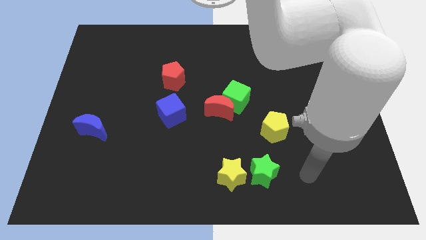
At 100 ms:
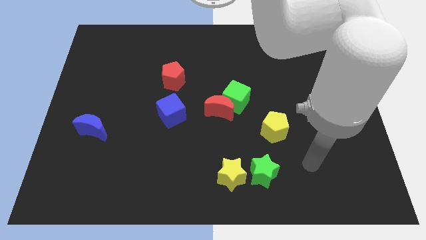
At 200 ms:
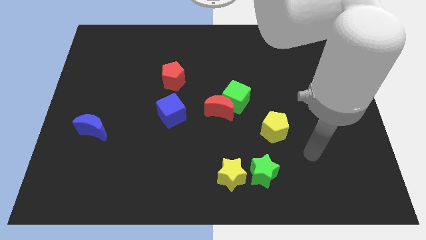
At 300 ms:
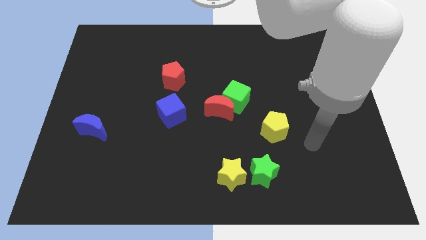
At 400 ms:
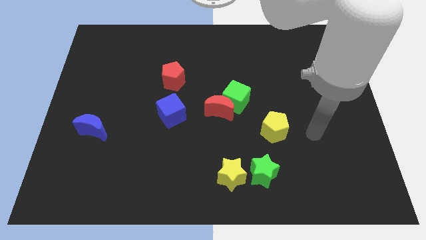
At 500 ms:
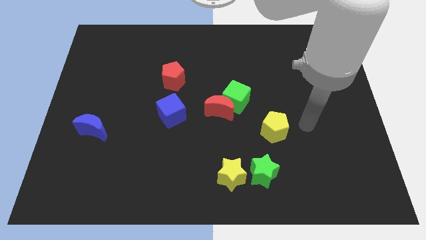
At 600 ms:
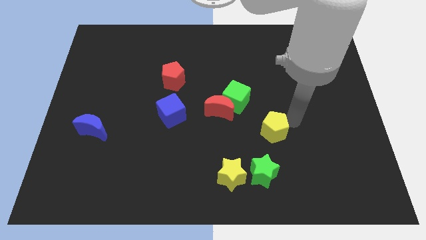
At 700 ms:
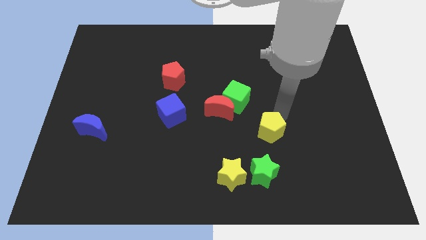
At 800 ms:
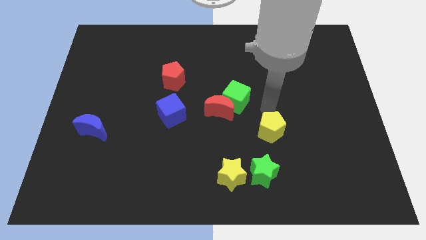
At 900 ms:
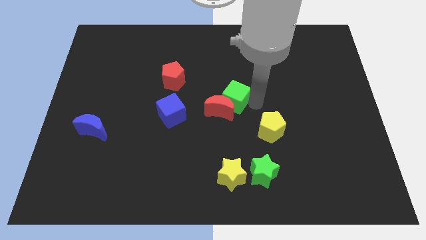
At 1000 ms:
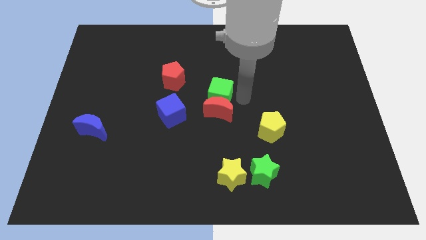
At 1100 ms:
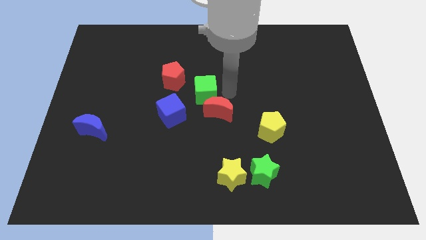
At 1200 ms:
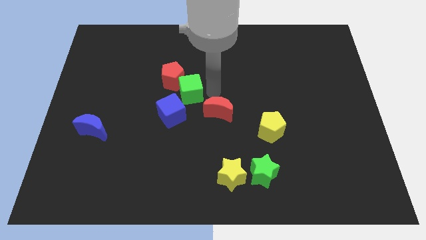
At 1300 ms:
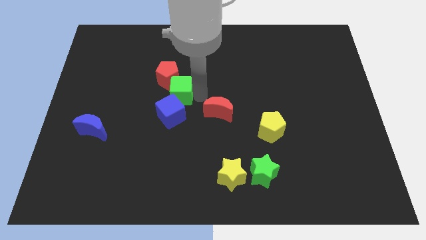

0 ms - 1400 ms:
separate the red moon from the green cube

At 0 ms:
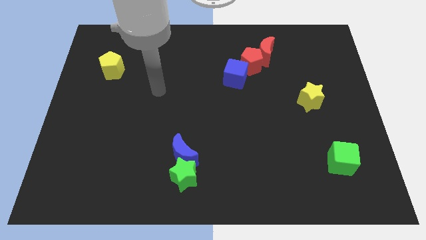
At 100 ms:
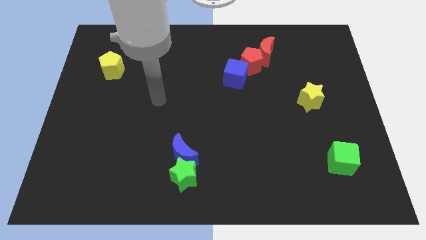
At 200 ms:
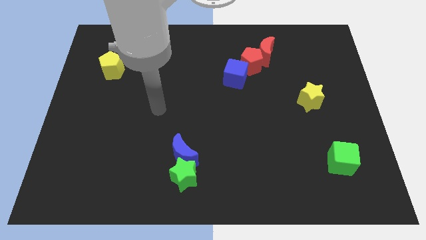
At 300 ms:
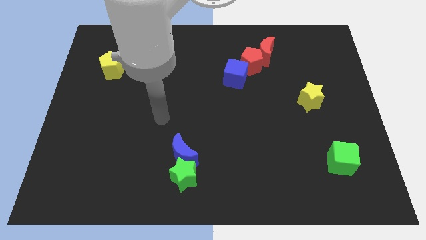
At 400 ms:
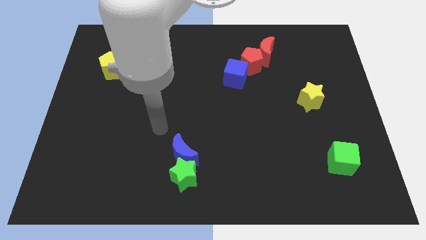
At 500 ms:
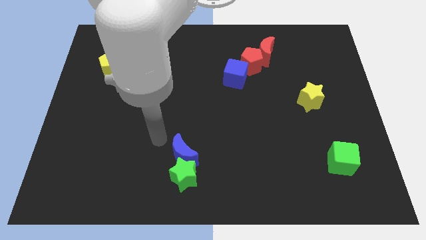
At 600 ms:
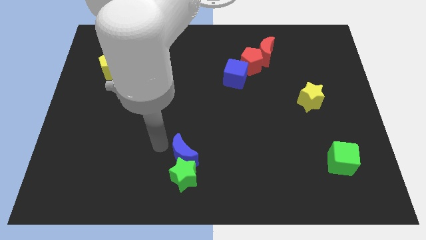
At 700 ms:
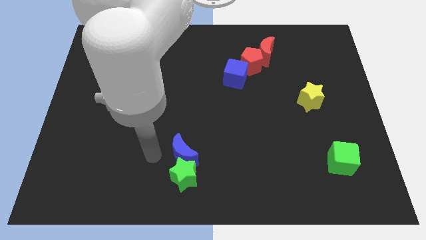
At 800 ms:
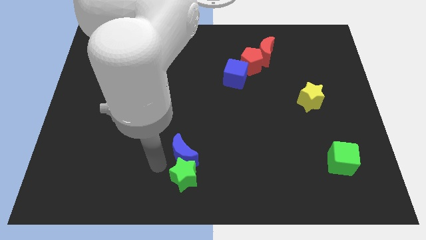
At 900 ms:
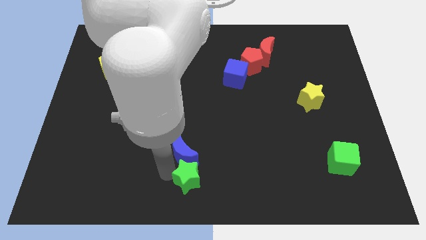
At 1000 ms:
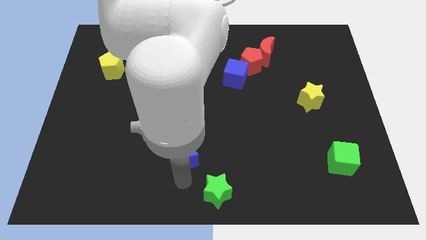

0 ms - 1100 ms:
pull the blue moon apart from the green star

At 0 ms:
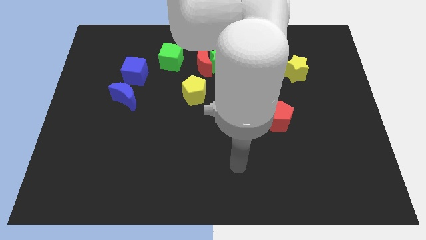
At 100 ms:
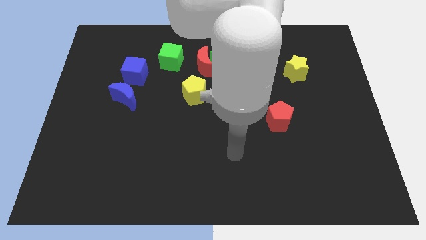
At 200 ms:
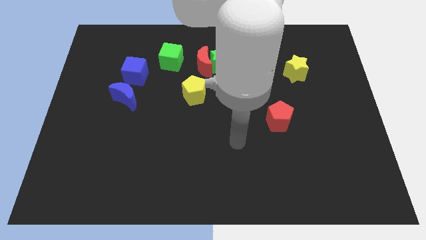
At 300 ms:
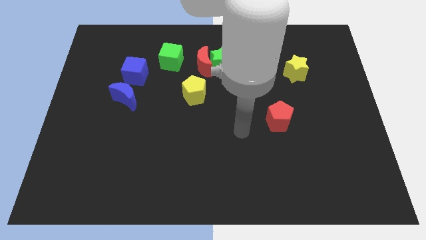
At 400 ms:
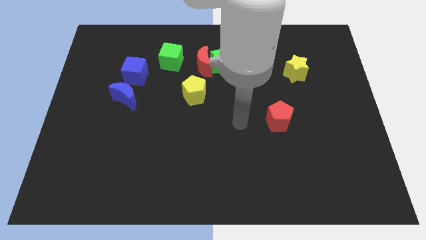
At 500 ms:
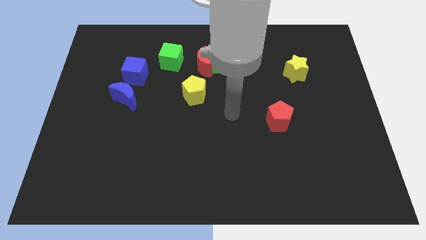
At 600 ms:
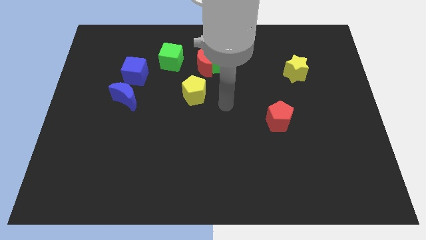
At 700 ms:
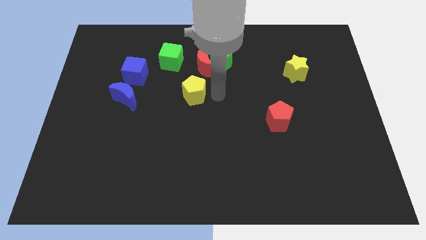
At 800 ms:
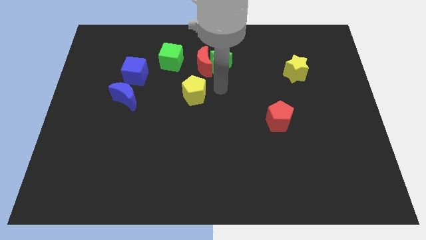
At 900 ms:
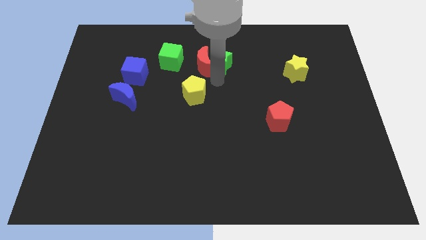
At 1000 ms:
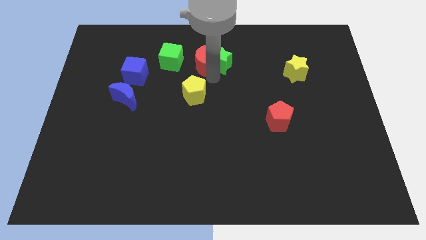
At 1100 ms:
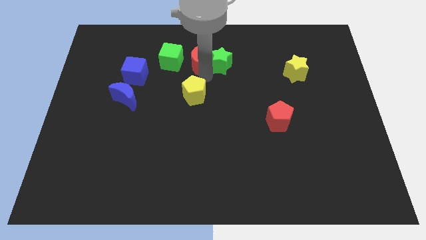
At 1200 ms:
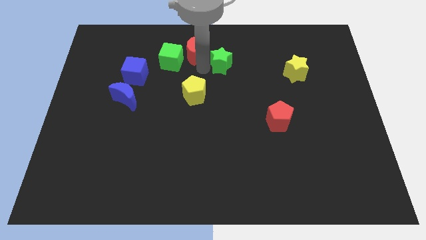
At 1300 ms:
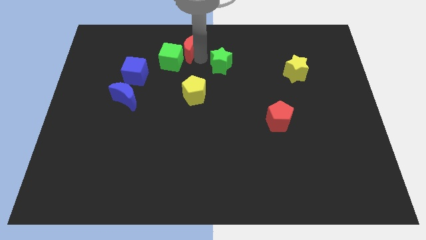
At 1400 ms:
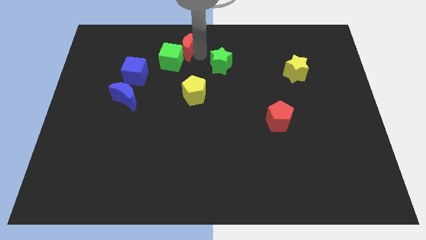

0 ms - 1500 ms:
move the green star away from the red moon

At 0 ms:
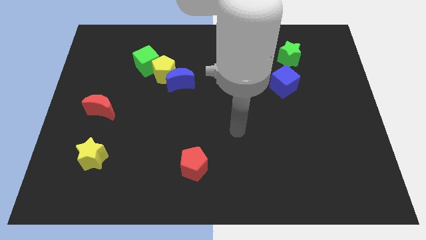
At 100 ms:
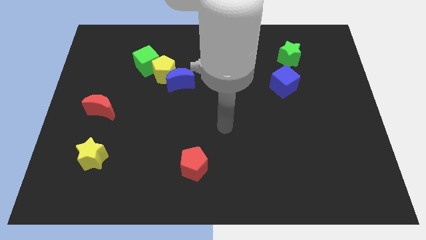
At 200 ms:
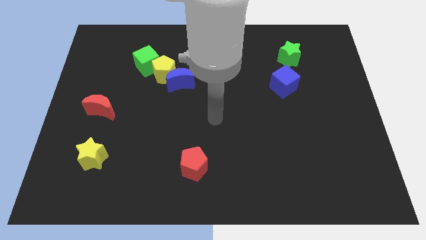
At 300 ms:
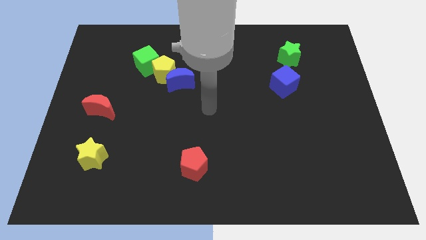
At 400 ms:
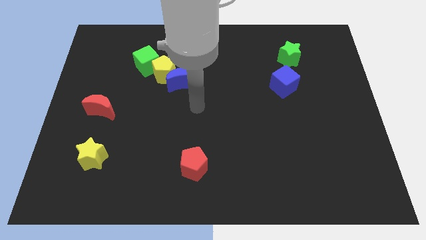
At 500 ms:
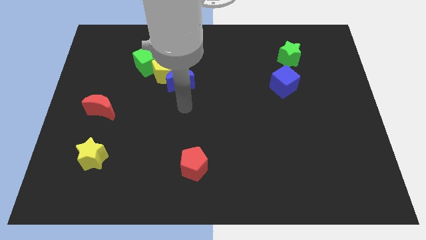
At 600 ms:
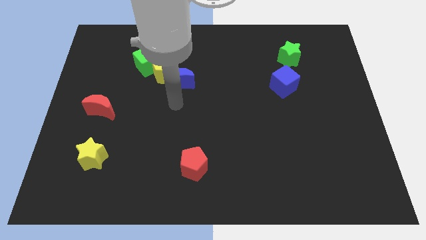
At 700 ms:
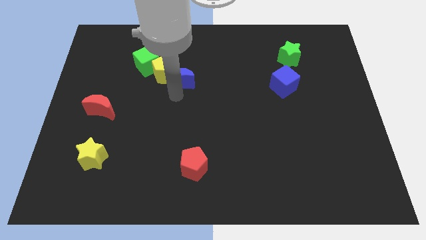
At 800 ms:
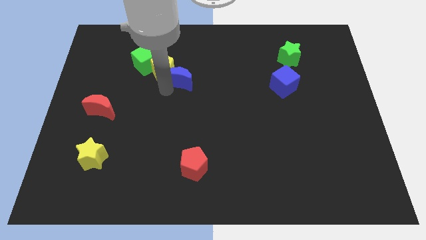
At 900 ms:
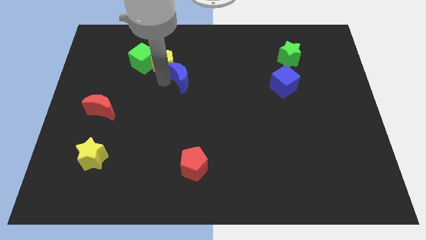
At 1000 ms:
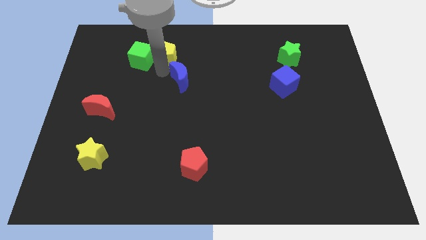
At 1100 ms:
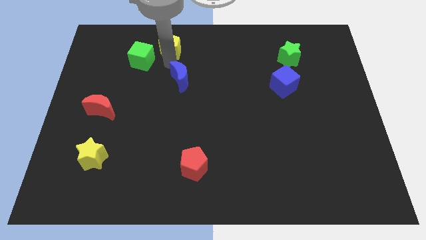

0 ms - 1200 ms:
move the blue moon away from the yellow pentagon

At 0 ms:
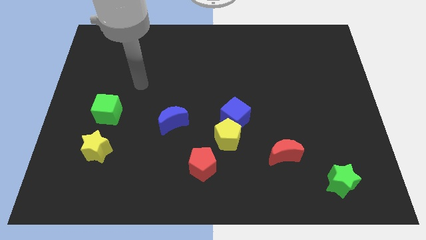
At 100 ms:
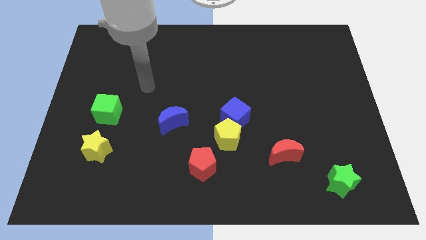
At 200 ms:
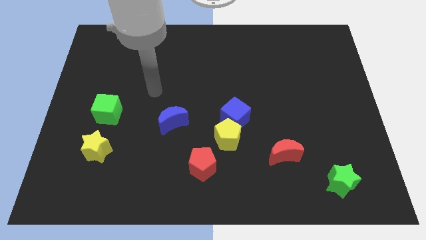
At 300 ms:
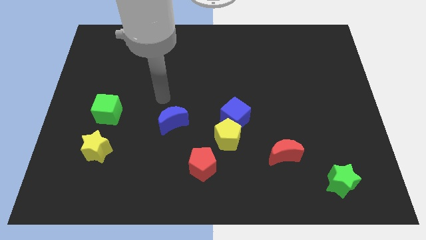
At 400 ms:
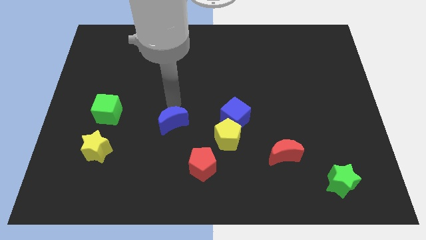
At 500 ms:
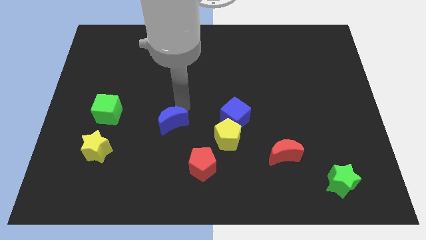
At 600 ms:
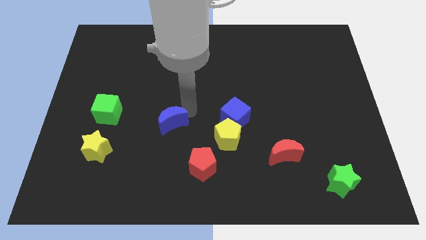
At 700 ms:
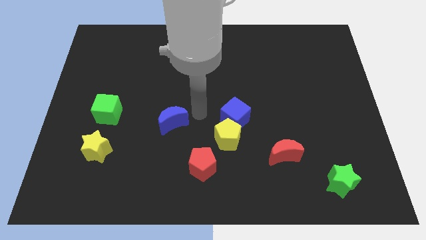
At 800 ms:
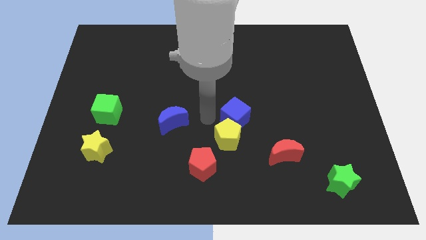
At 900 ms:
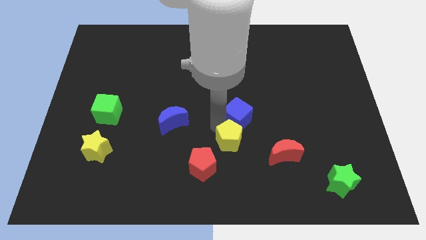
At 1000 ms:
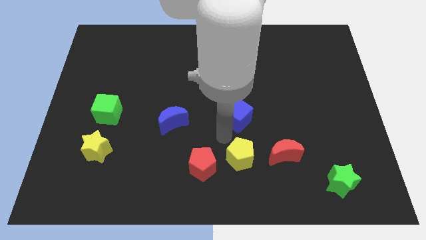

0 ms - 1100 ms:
separate the blue cube from the yellow pentagon

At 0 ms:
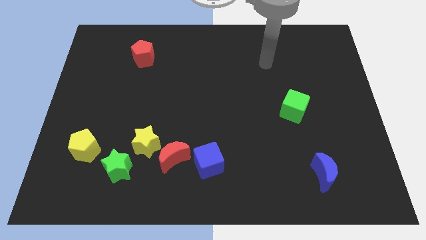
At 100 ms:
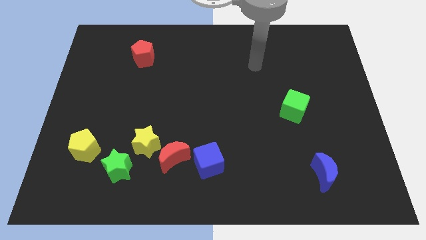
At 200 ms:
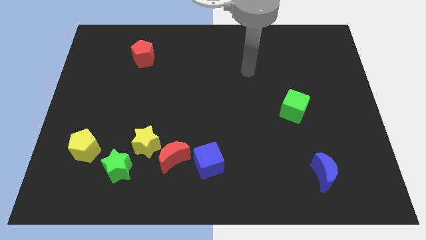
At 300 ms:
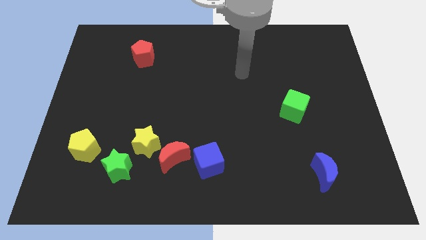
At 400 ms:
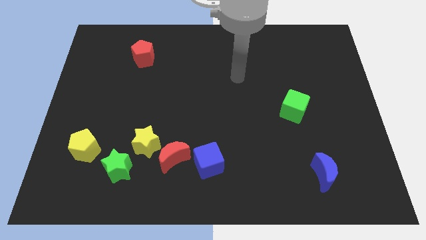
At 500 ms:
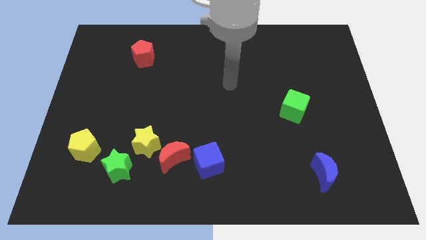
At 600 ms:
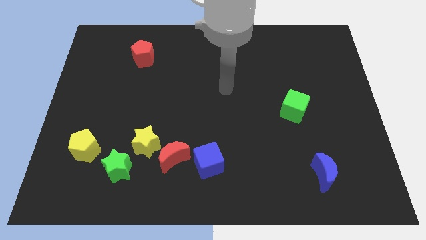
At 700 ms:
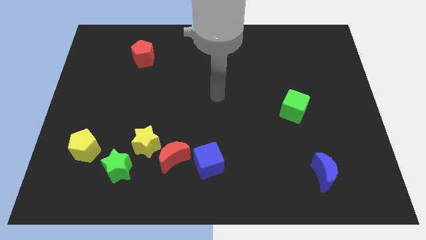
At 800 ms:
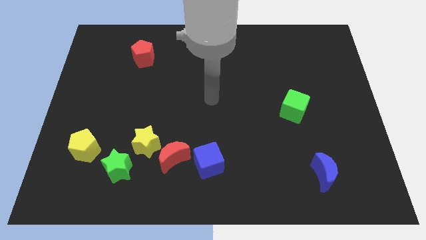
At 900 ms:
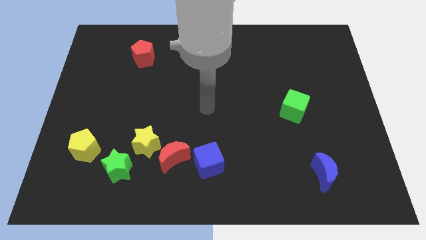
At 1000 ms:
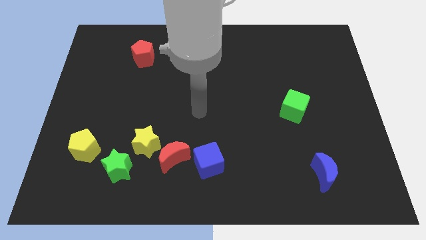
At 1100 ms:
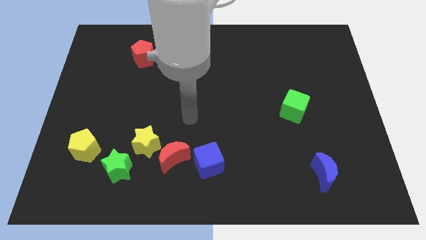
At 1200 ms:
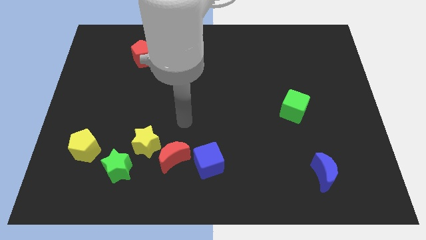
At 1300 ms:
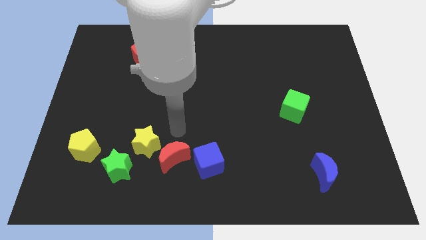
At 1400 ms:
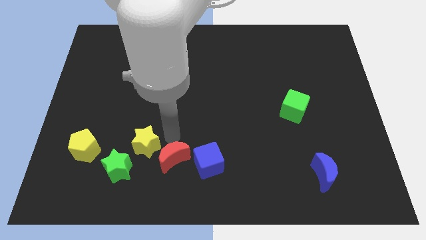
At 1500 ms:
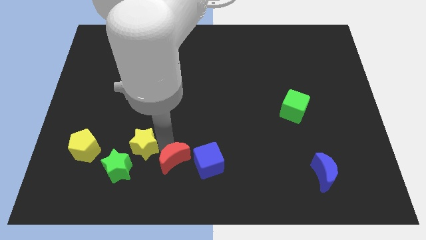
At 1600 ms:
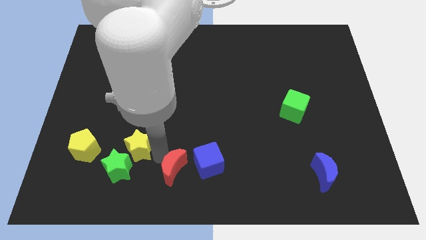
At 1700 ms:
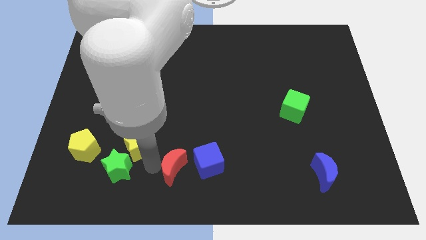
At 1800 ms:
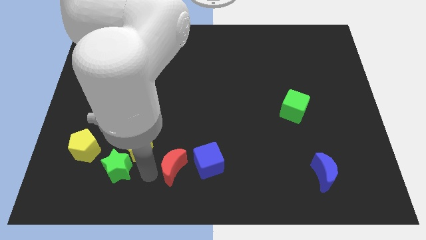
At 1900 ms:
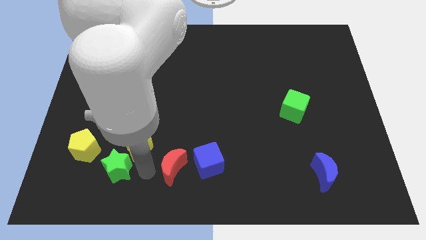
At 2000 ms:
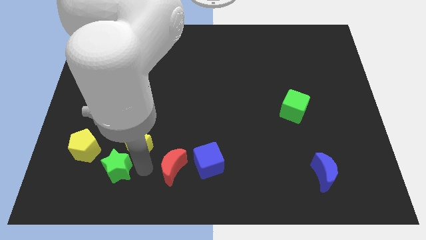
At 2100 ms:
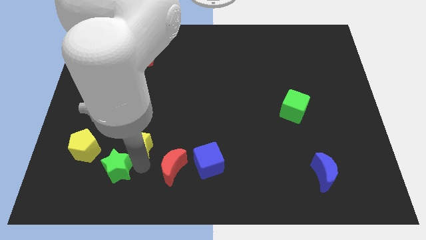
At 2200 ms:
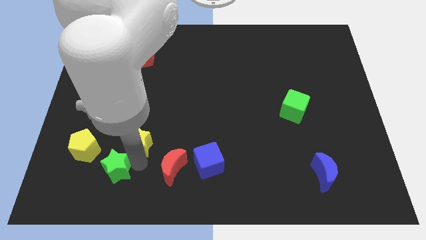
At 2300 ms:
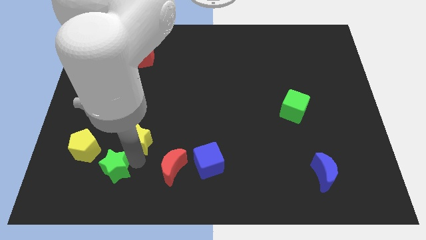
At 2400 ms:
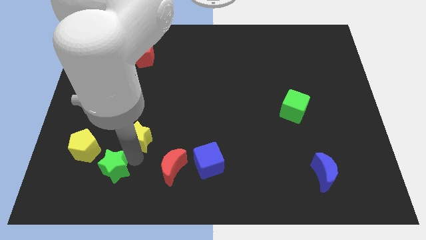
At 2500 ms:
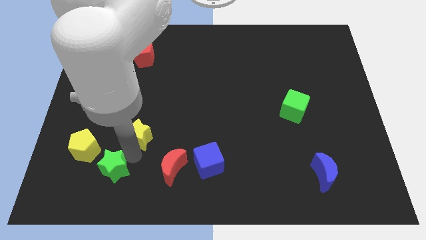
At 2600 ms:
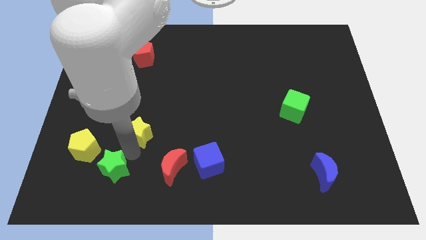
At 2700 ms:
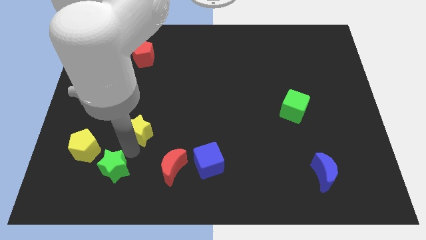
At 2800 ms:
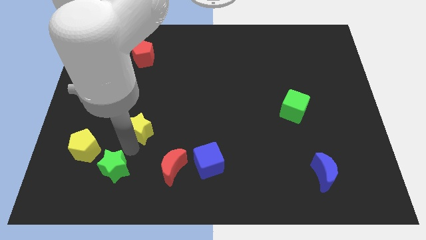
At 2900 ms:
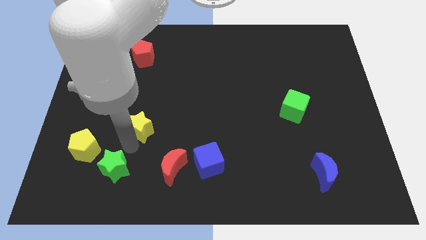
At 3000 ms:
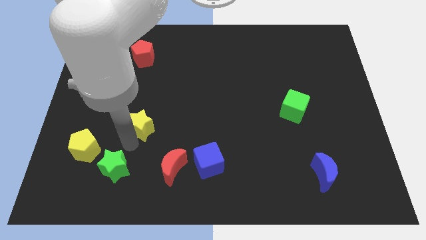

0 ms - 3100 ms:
move the yellow star away from the red moon and green star
